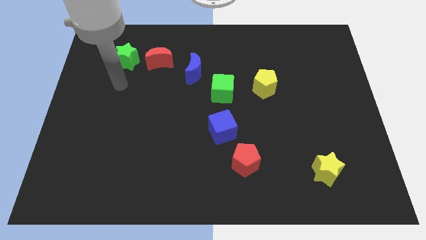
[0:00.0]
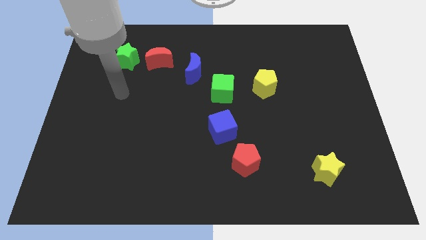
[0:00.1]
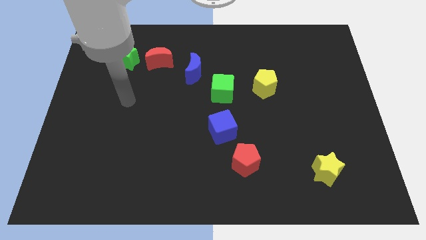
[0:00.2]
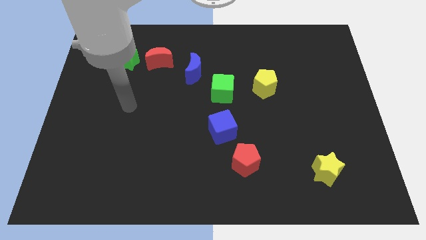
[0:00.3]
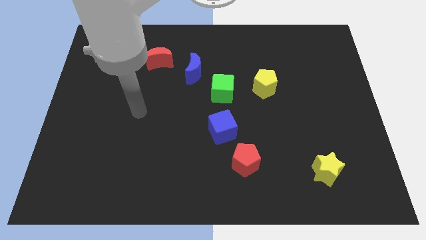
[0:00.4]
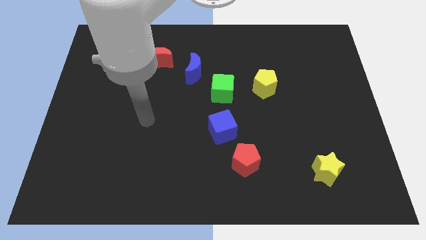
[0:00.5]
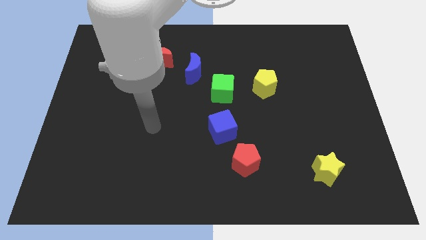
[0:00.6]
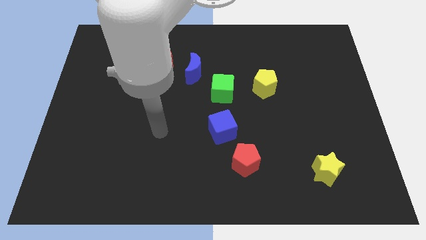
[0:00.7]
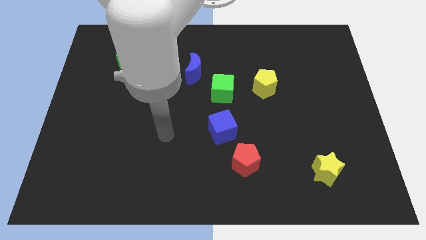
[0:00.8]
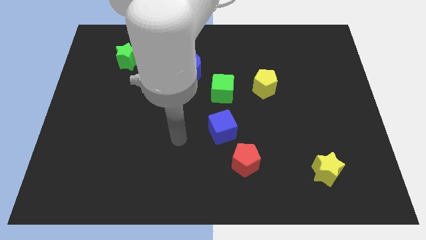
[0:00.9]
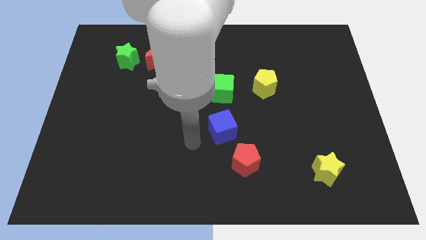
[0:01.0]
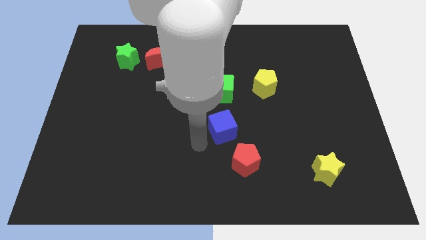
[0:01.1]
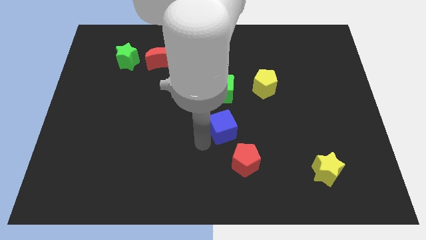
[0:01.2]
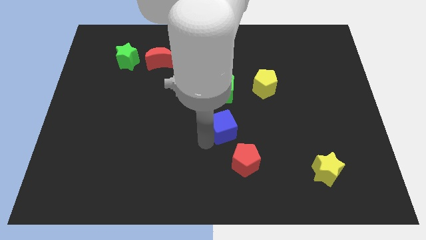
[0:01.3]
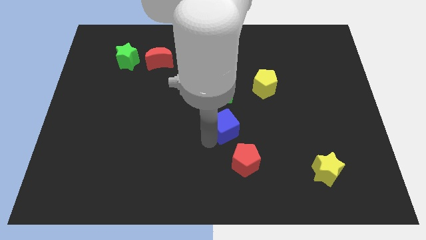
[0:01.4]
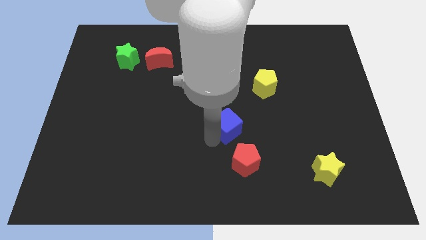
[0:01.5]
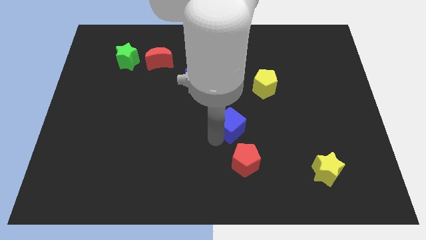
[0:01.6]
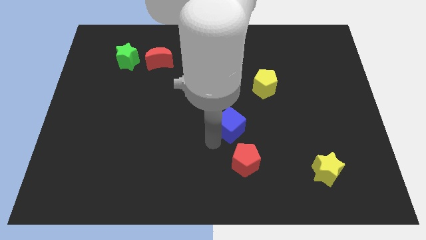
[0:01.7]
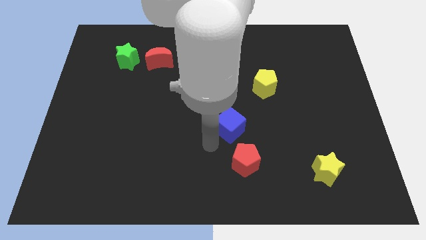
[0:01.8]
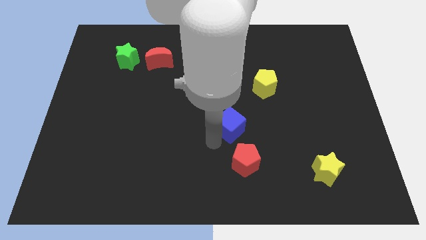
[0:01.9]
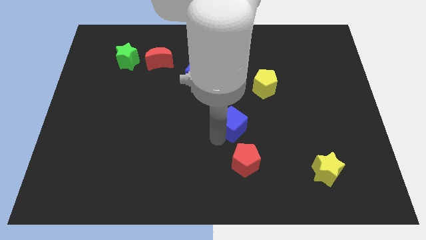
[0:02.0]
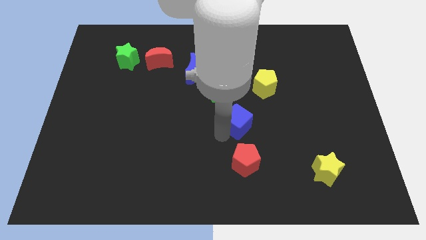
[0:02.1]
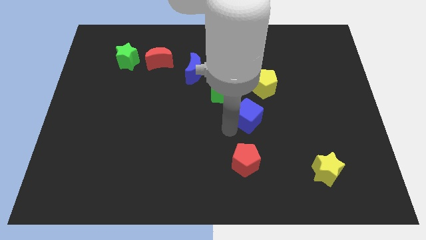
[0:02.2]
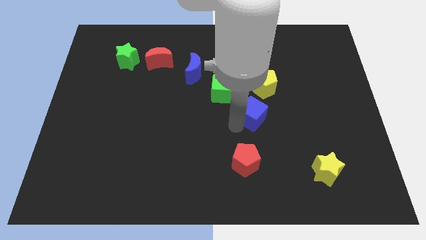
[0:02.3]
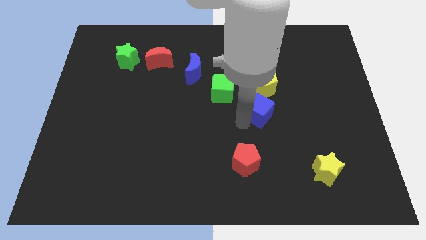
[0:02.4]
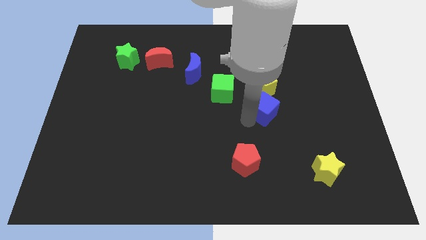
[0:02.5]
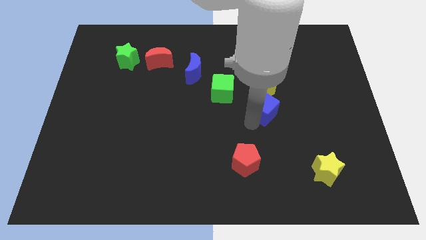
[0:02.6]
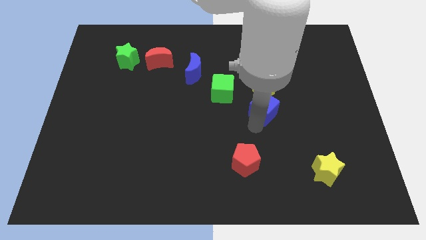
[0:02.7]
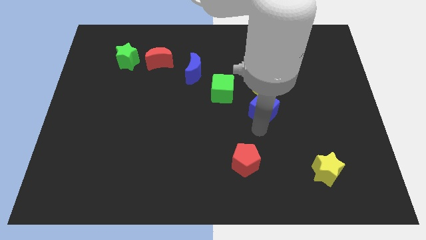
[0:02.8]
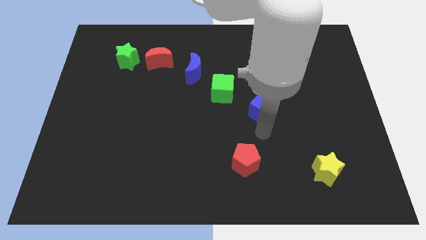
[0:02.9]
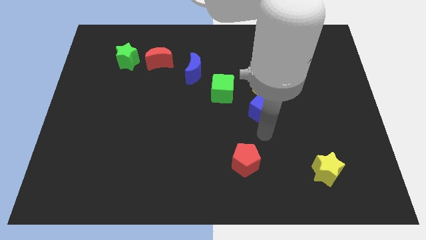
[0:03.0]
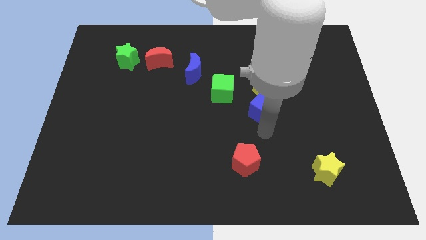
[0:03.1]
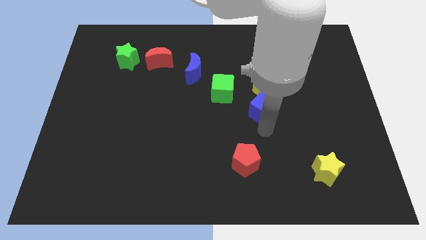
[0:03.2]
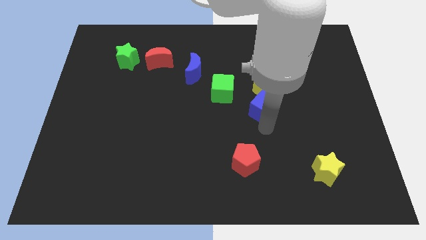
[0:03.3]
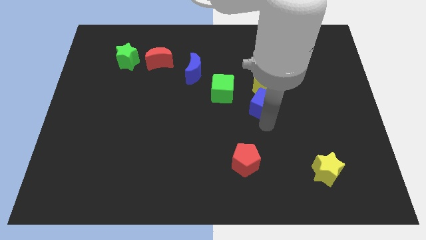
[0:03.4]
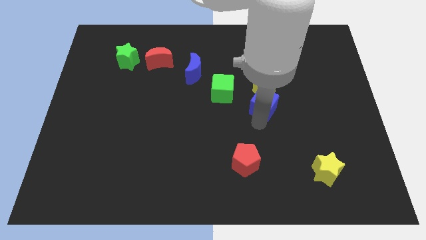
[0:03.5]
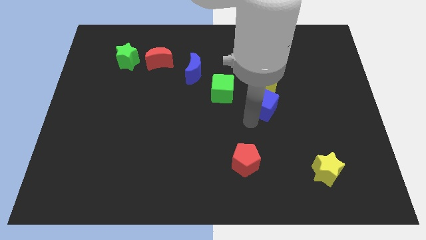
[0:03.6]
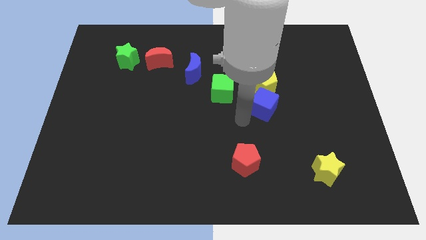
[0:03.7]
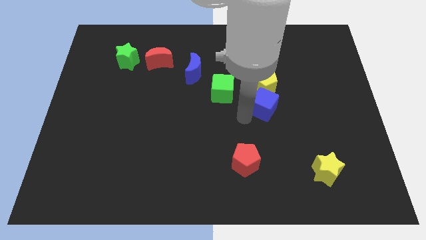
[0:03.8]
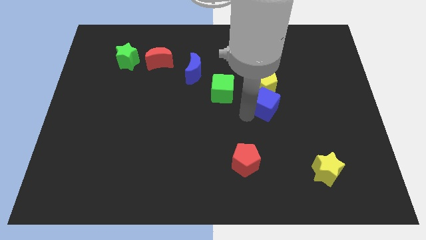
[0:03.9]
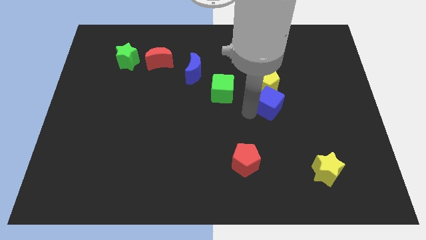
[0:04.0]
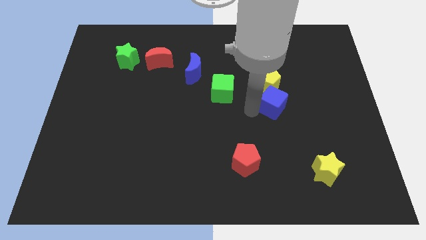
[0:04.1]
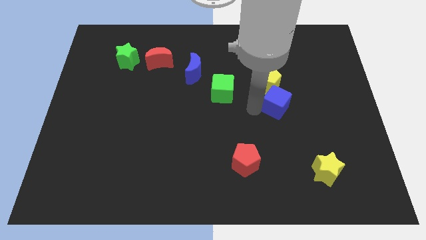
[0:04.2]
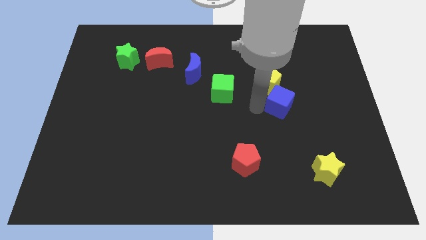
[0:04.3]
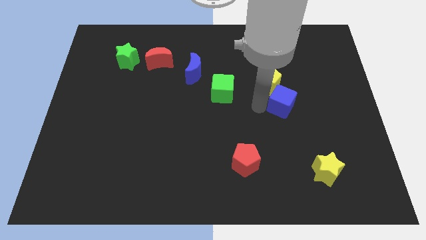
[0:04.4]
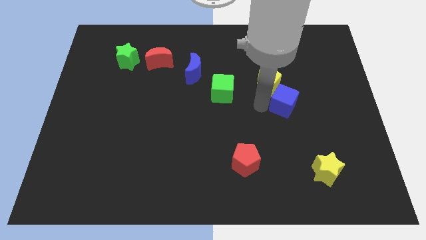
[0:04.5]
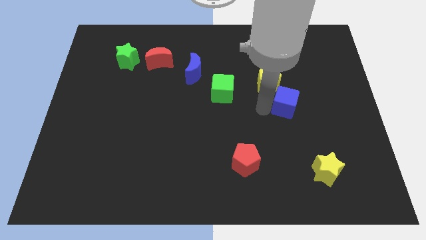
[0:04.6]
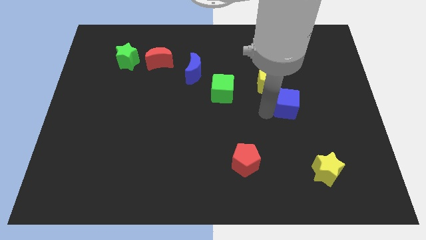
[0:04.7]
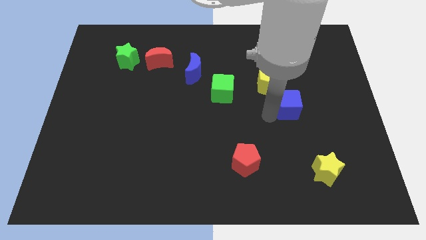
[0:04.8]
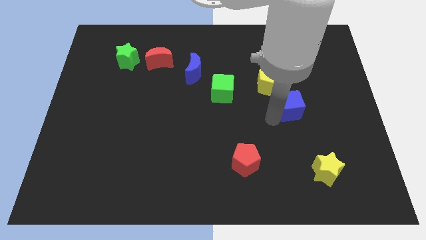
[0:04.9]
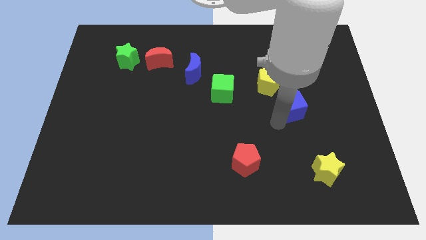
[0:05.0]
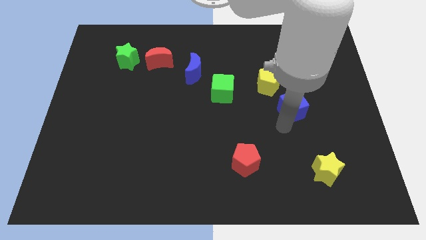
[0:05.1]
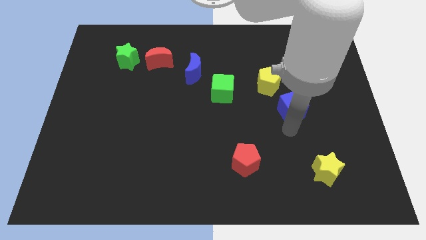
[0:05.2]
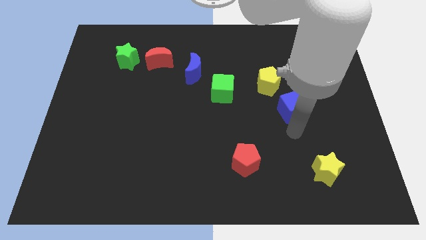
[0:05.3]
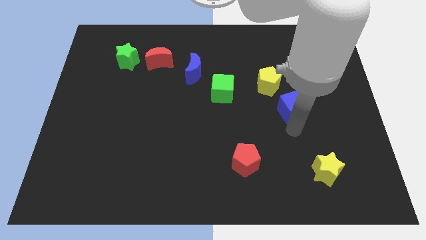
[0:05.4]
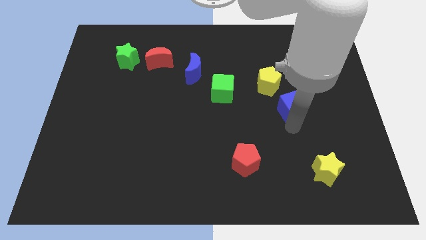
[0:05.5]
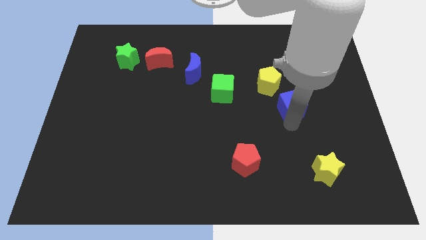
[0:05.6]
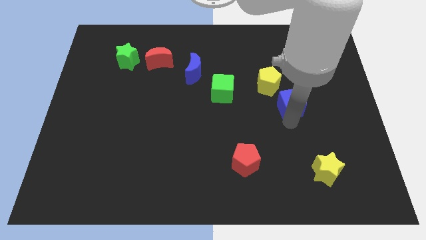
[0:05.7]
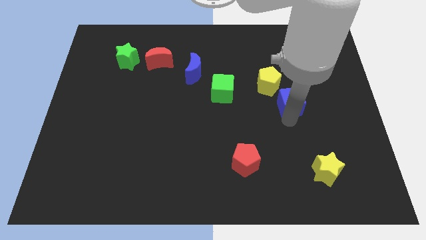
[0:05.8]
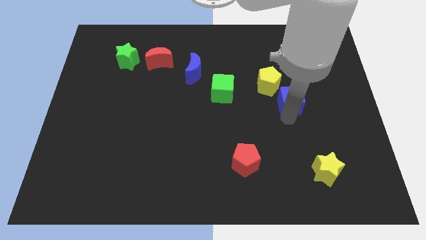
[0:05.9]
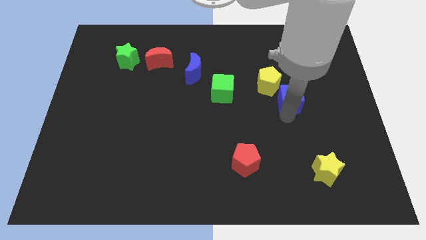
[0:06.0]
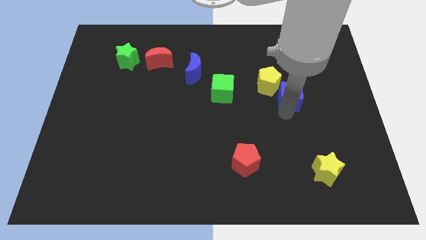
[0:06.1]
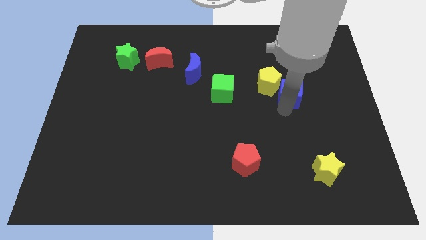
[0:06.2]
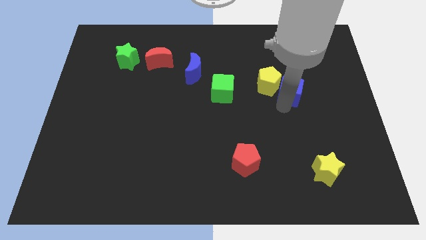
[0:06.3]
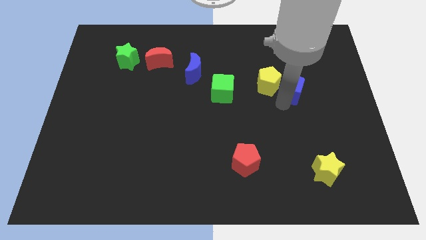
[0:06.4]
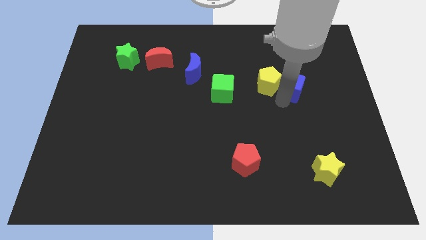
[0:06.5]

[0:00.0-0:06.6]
move the blue cube up and then to the right

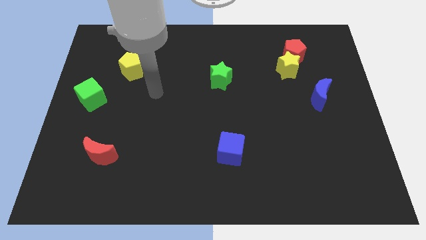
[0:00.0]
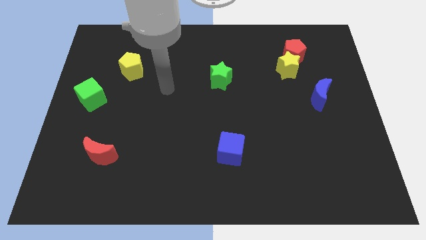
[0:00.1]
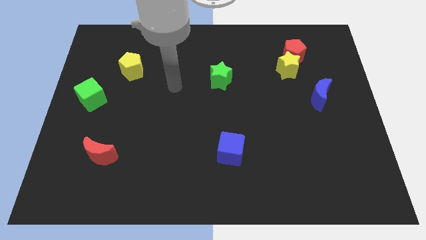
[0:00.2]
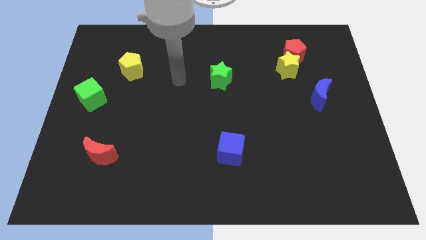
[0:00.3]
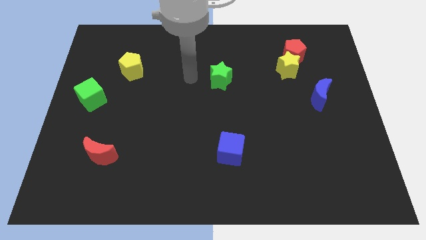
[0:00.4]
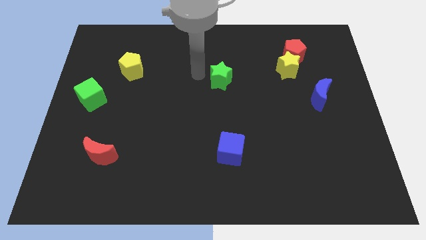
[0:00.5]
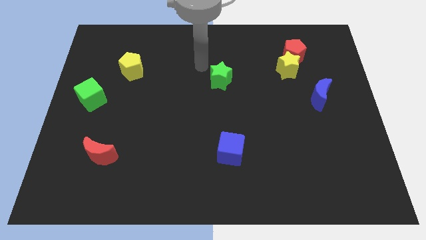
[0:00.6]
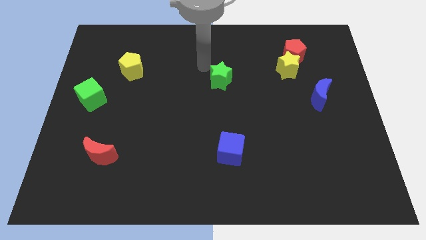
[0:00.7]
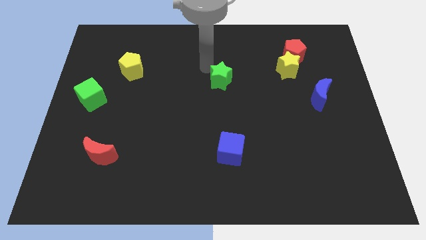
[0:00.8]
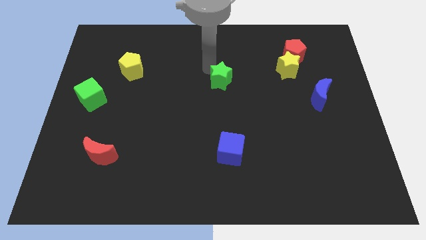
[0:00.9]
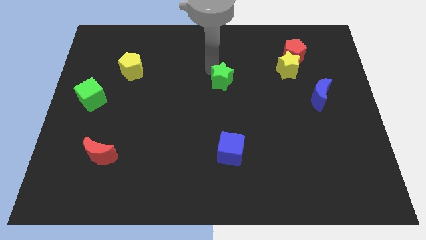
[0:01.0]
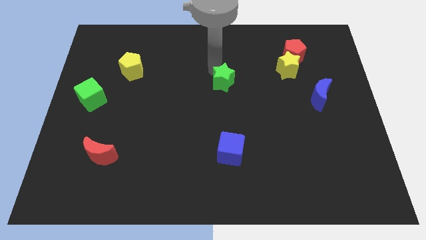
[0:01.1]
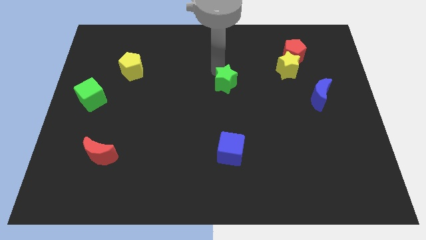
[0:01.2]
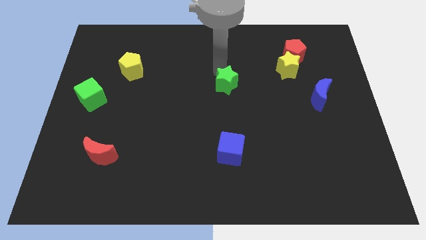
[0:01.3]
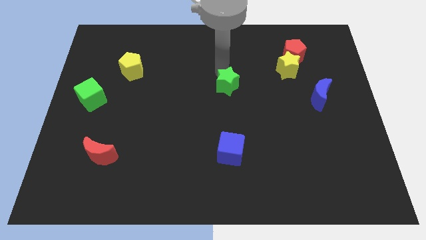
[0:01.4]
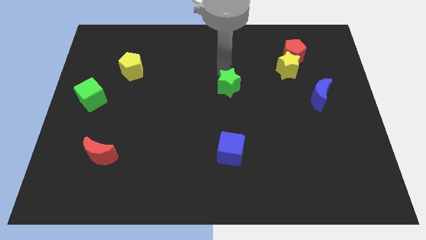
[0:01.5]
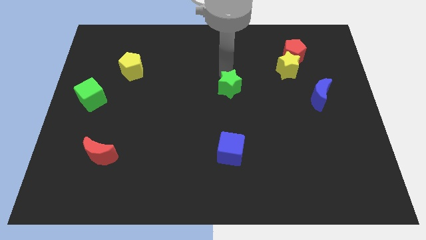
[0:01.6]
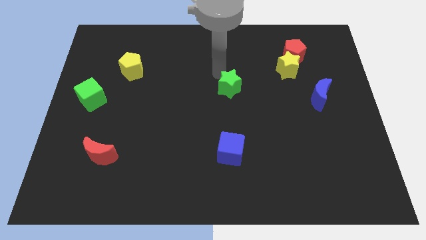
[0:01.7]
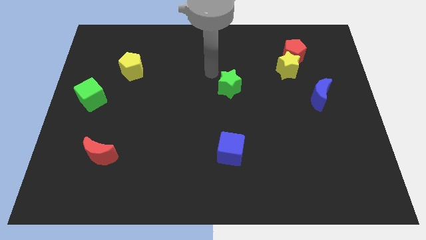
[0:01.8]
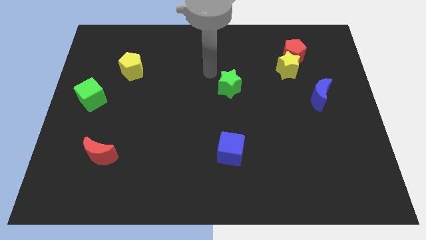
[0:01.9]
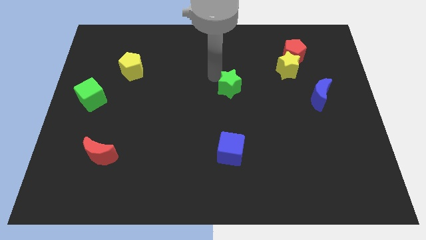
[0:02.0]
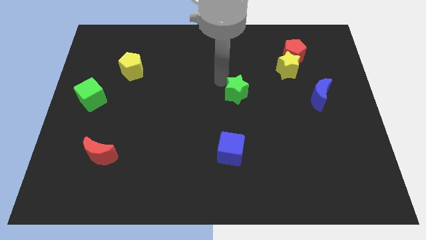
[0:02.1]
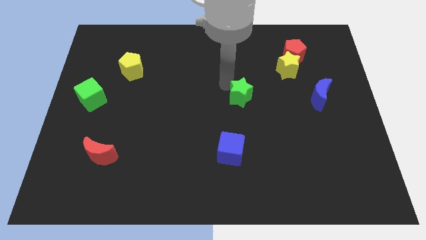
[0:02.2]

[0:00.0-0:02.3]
move the green star slightly down and right
